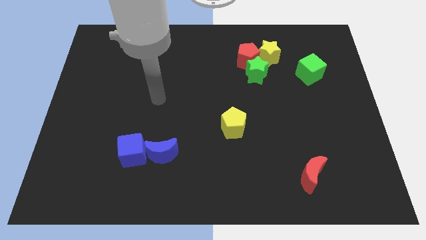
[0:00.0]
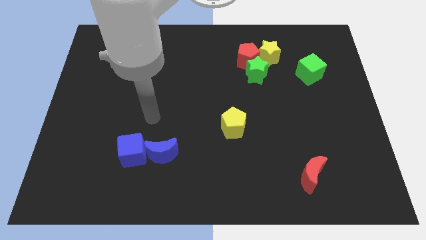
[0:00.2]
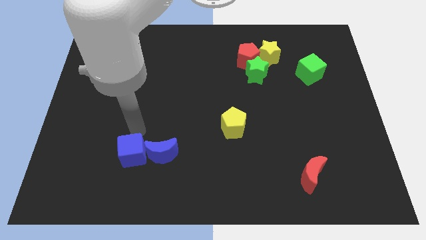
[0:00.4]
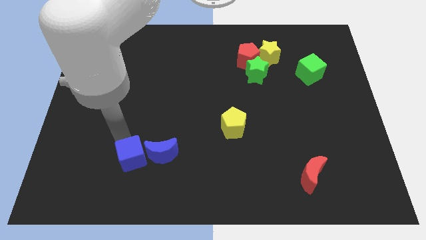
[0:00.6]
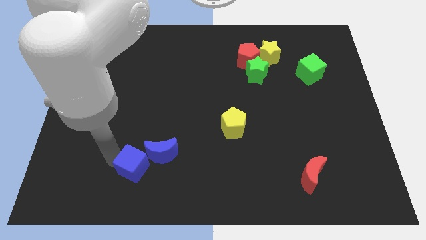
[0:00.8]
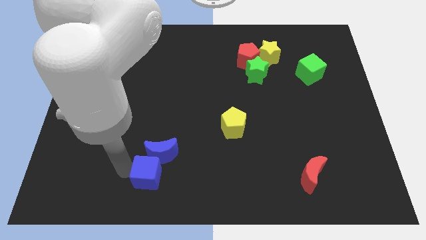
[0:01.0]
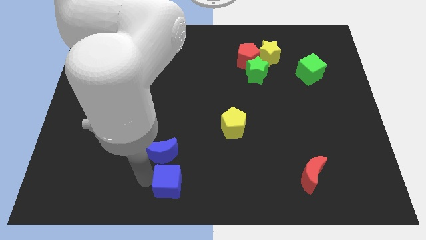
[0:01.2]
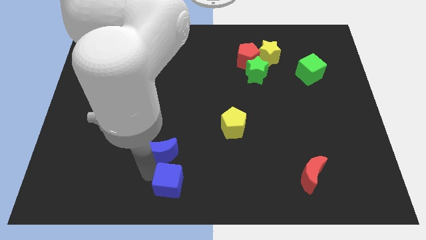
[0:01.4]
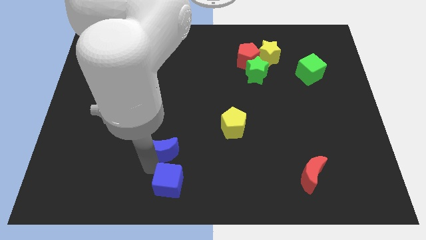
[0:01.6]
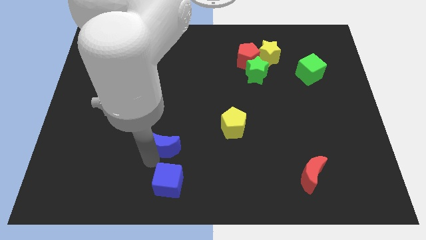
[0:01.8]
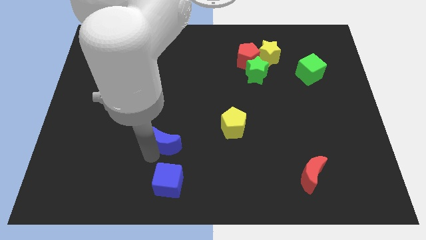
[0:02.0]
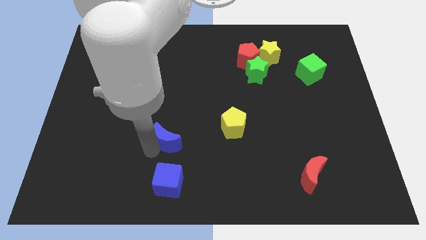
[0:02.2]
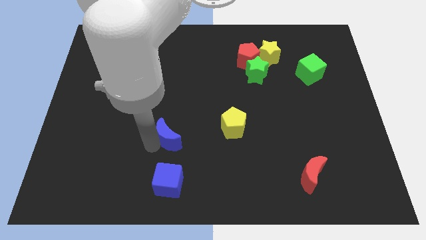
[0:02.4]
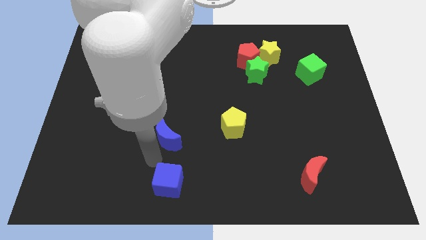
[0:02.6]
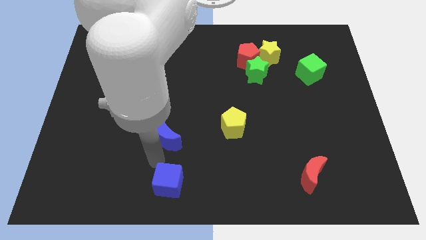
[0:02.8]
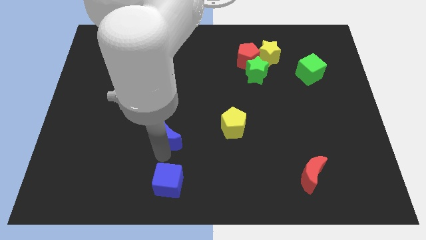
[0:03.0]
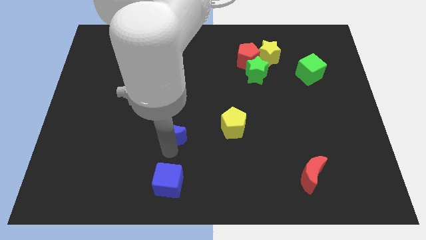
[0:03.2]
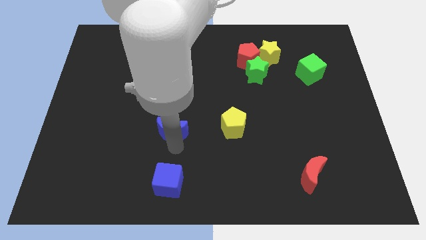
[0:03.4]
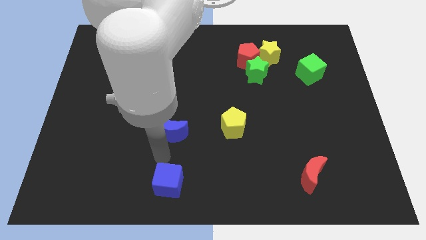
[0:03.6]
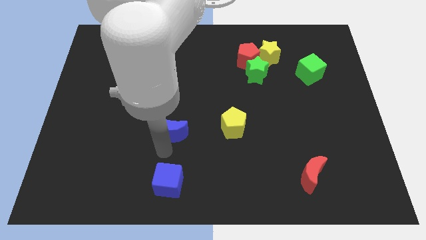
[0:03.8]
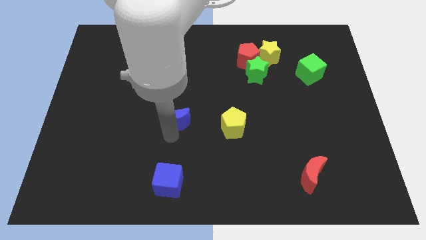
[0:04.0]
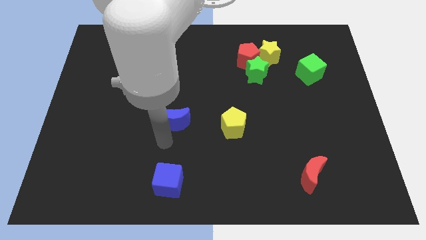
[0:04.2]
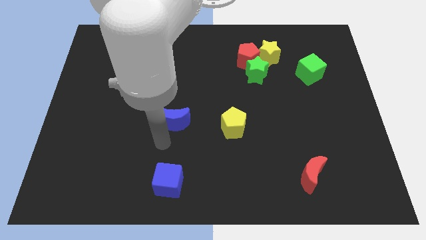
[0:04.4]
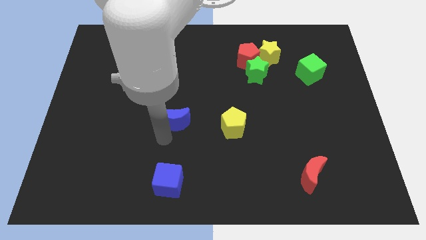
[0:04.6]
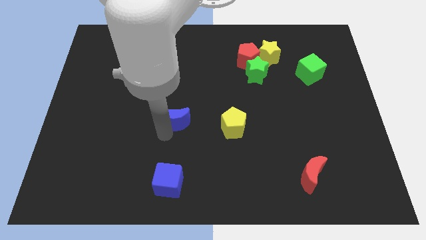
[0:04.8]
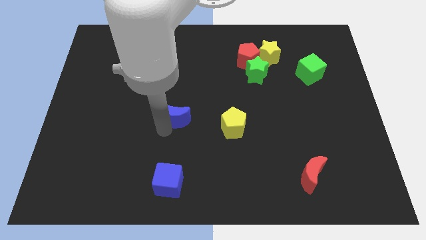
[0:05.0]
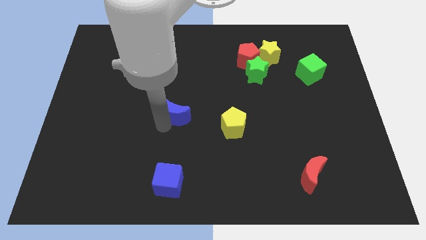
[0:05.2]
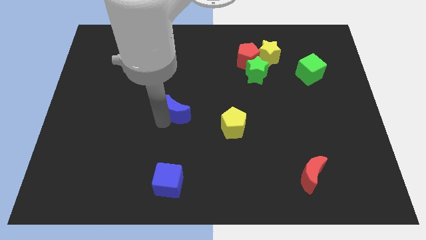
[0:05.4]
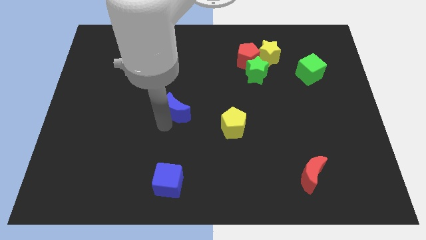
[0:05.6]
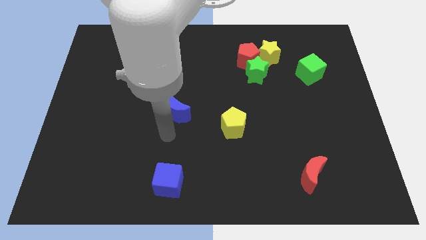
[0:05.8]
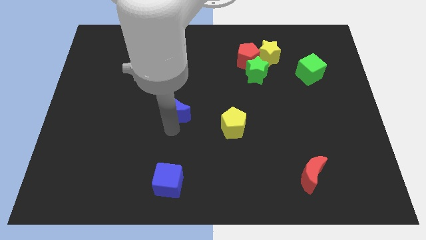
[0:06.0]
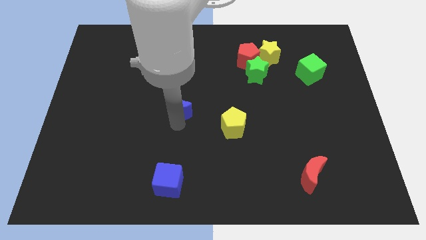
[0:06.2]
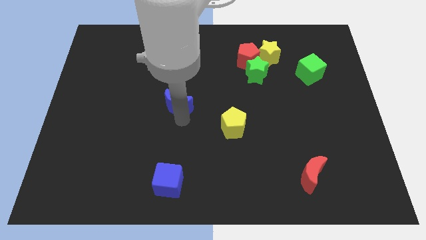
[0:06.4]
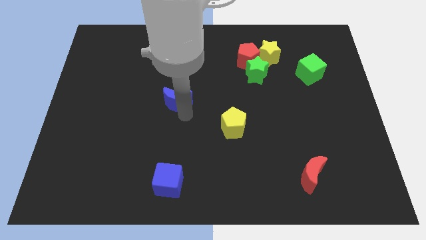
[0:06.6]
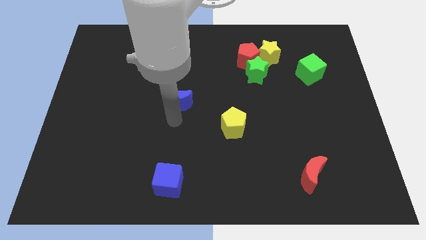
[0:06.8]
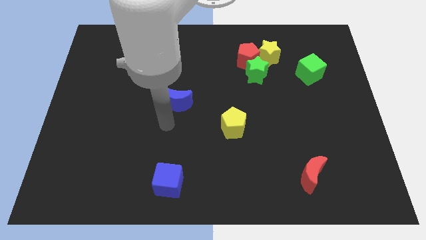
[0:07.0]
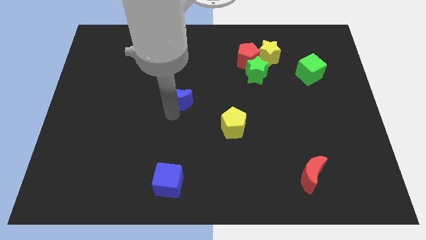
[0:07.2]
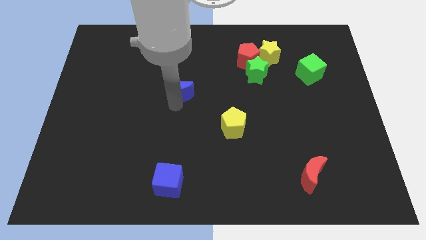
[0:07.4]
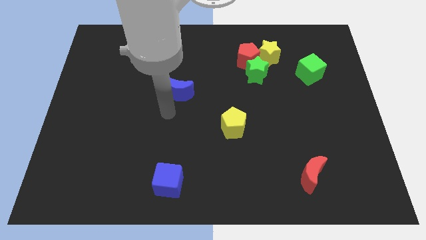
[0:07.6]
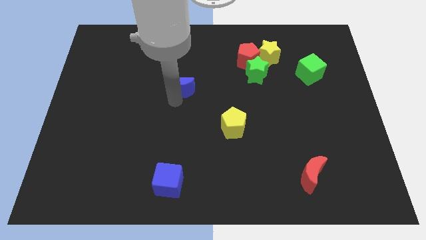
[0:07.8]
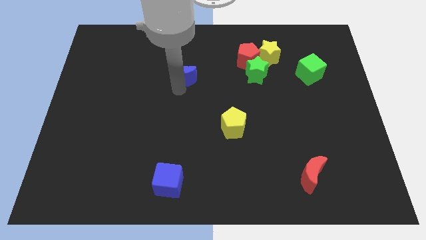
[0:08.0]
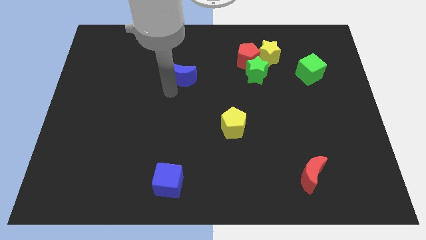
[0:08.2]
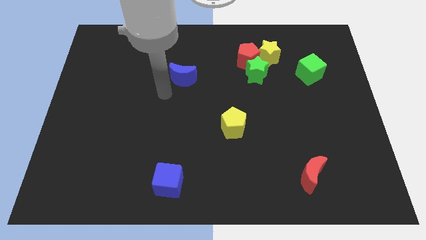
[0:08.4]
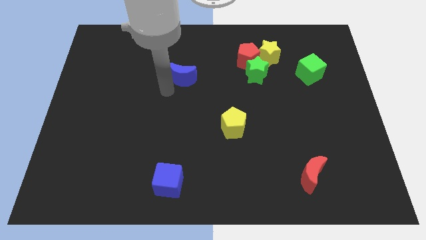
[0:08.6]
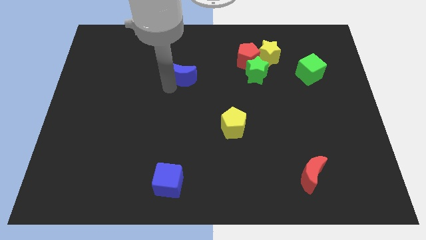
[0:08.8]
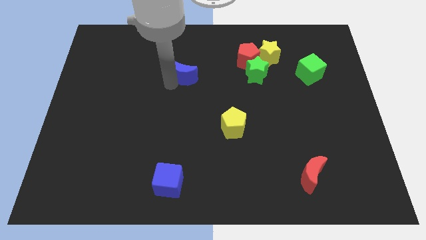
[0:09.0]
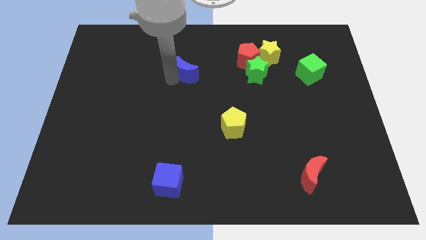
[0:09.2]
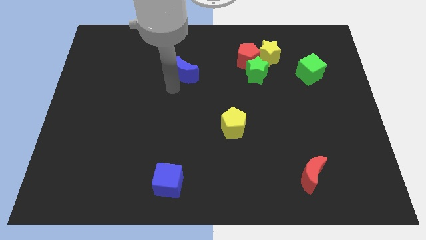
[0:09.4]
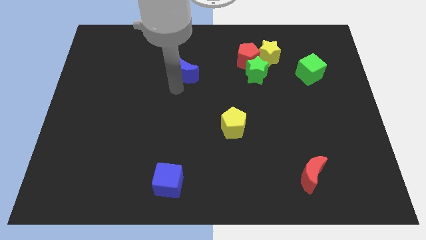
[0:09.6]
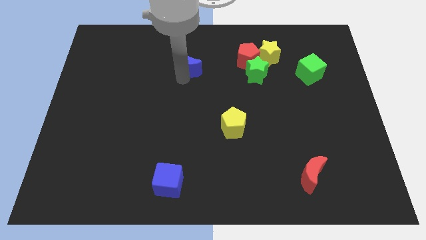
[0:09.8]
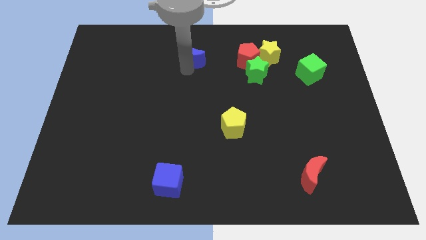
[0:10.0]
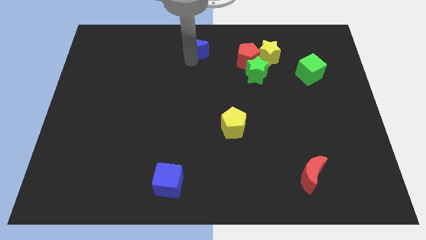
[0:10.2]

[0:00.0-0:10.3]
move the blue moon to the towards your base

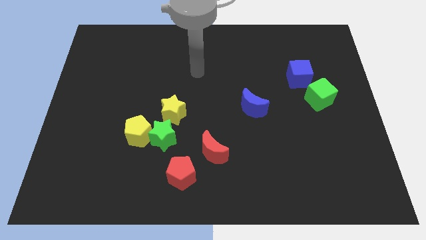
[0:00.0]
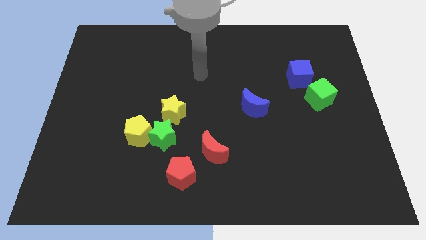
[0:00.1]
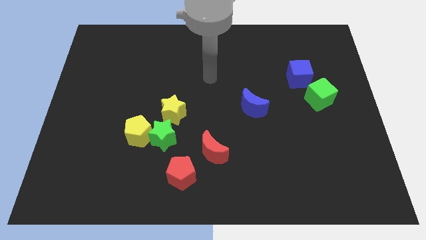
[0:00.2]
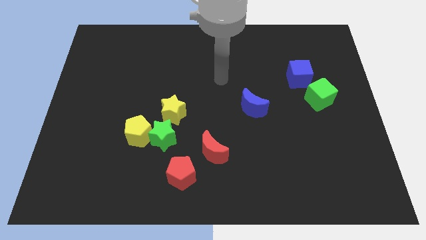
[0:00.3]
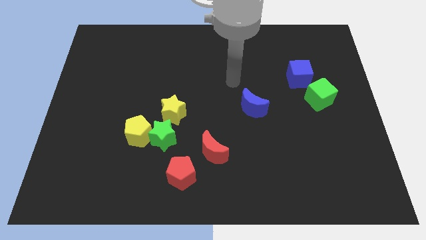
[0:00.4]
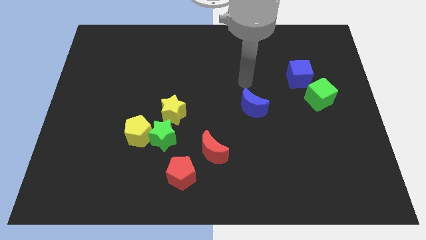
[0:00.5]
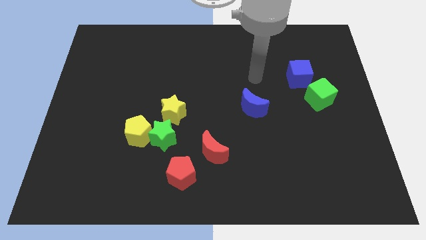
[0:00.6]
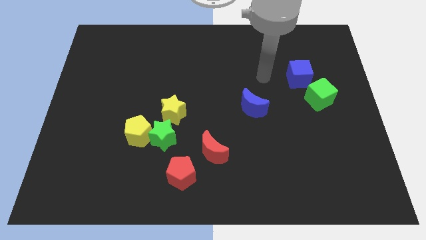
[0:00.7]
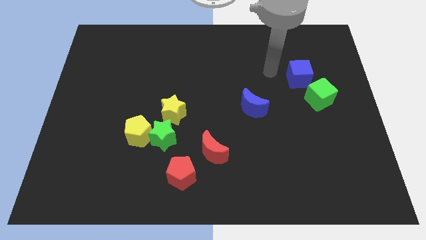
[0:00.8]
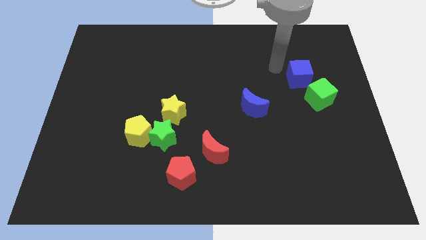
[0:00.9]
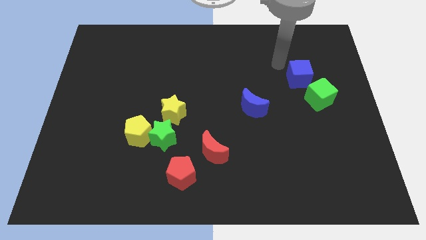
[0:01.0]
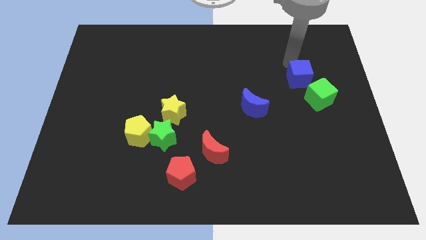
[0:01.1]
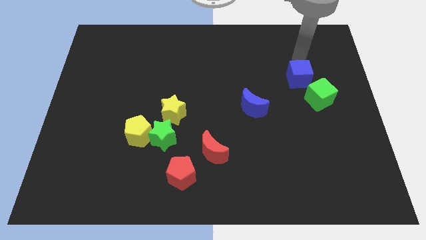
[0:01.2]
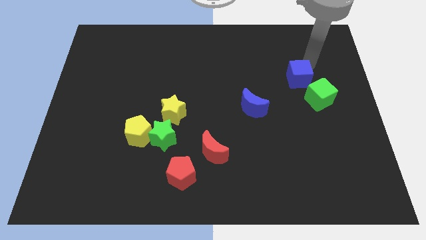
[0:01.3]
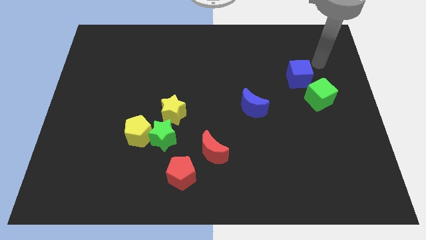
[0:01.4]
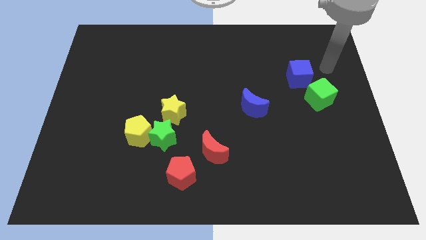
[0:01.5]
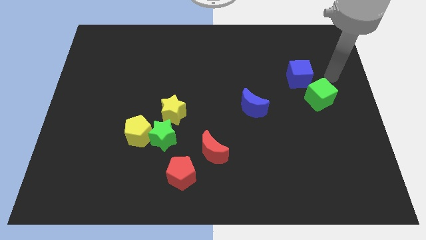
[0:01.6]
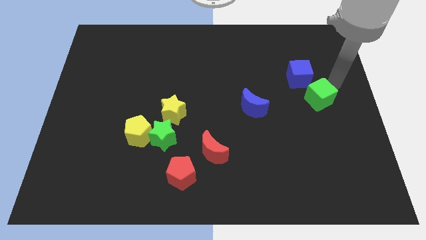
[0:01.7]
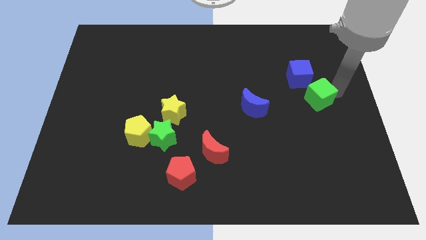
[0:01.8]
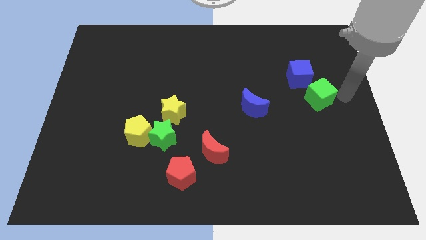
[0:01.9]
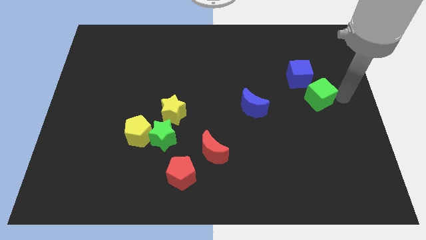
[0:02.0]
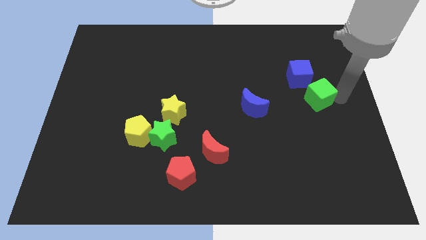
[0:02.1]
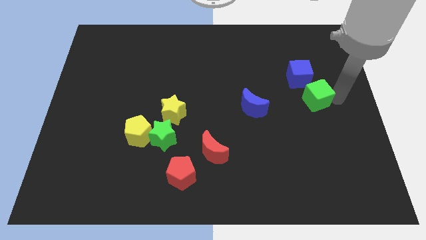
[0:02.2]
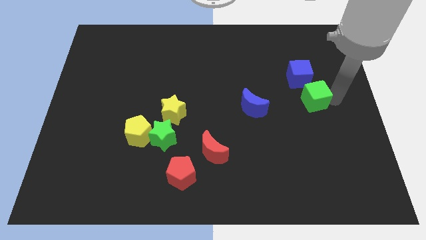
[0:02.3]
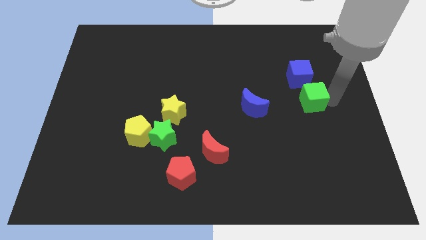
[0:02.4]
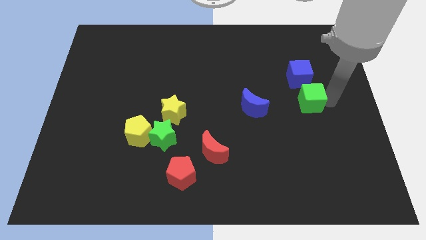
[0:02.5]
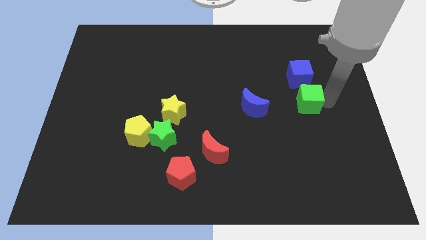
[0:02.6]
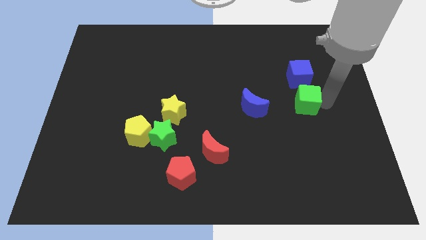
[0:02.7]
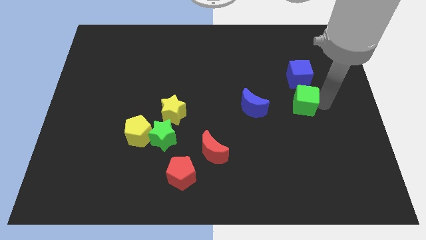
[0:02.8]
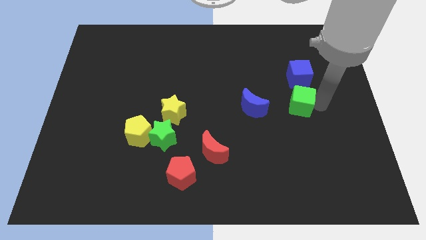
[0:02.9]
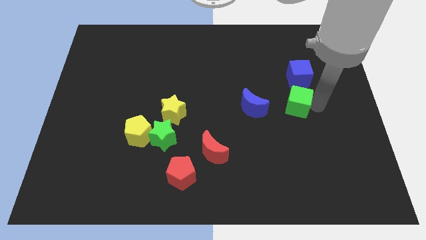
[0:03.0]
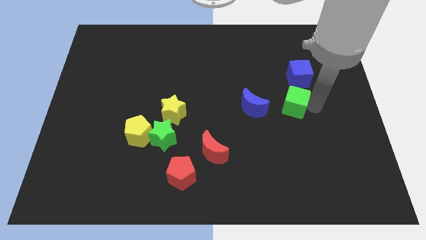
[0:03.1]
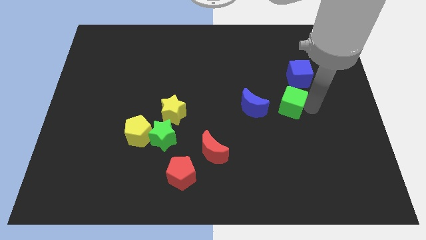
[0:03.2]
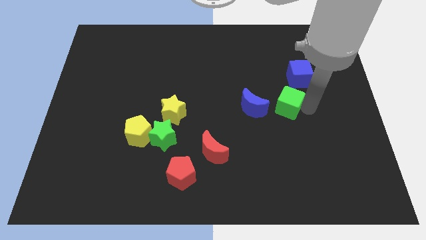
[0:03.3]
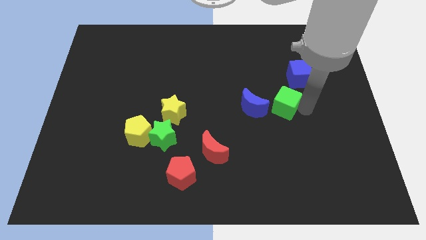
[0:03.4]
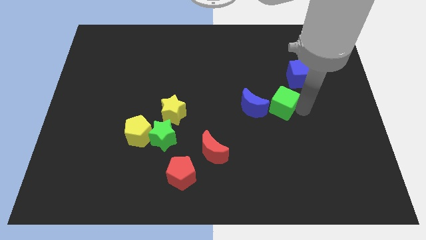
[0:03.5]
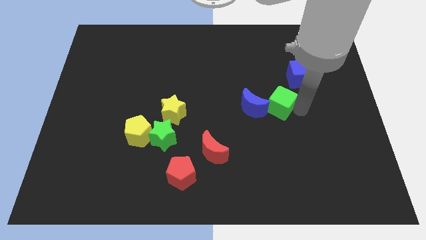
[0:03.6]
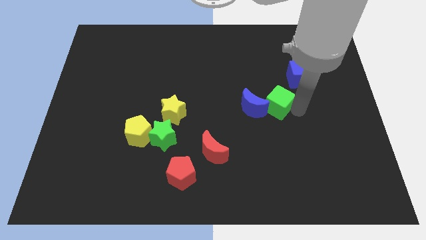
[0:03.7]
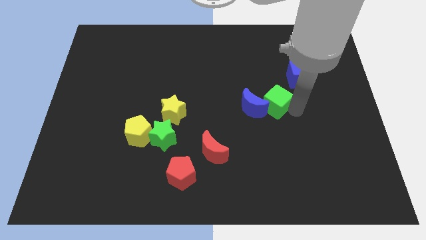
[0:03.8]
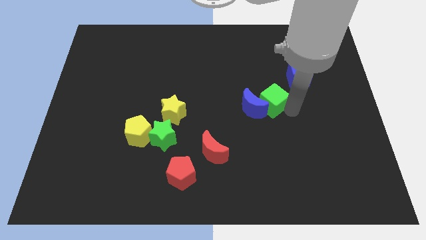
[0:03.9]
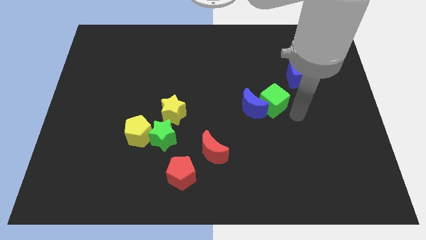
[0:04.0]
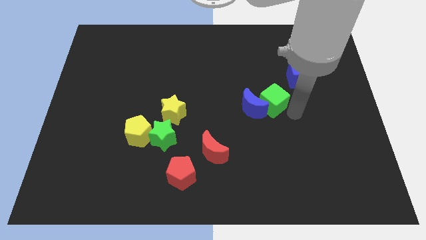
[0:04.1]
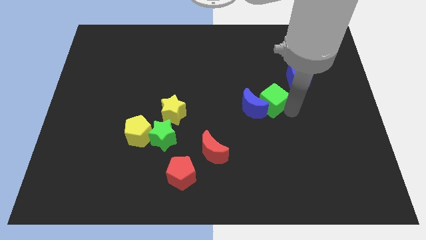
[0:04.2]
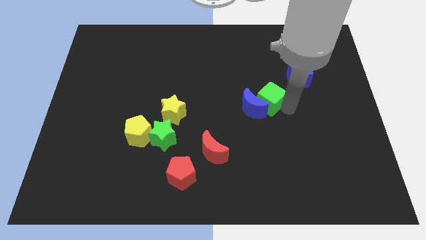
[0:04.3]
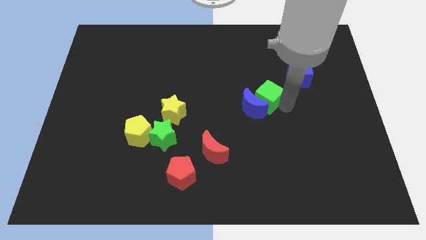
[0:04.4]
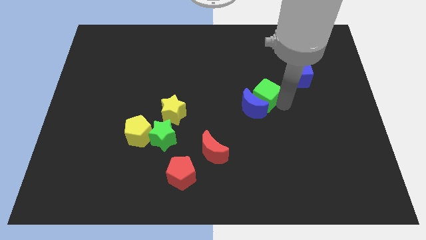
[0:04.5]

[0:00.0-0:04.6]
put the green cube to the middle of the board
